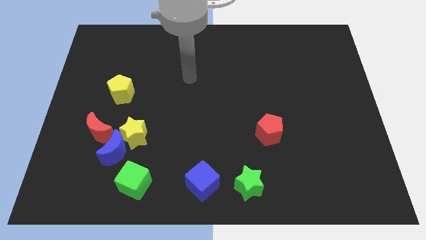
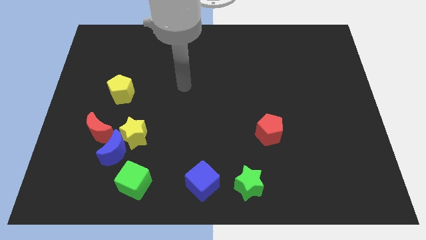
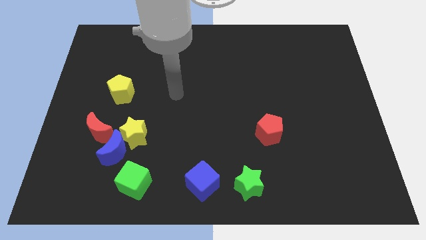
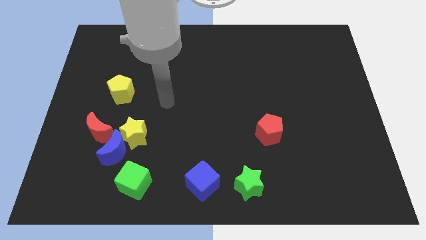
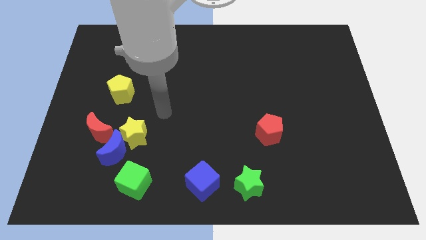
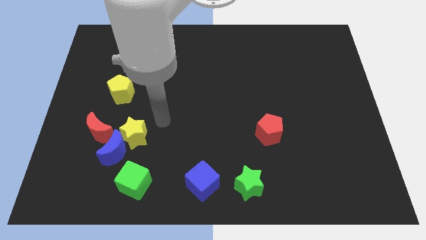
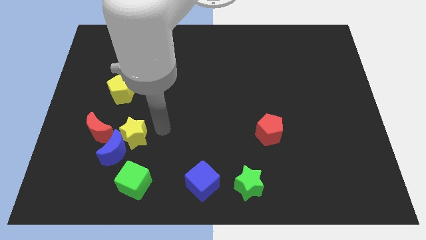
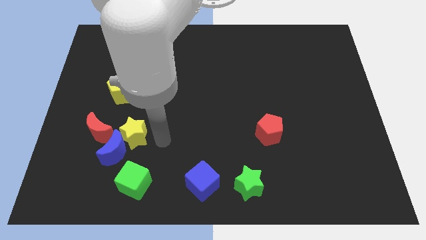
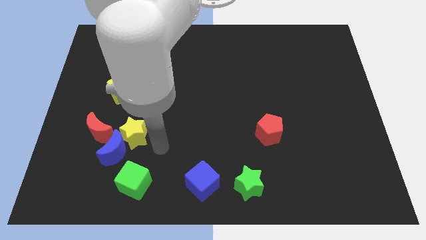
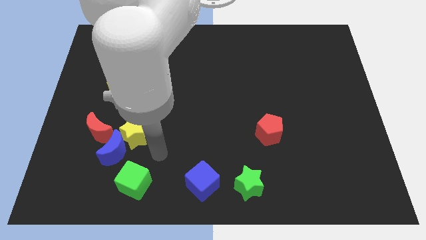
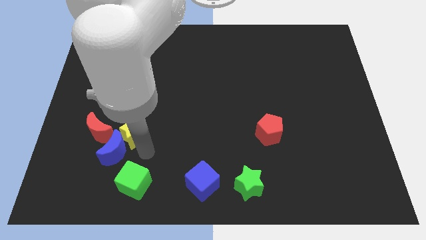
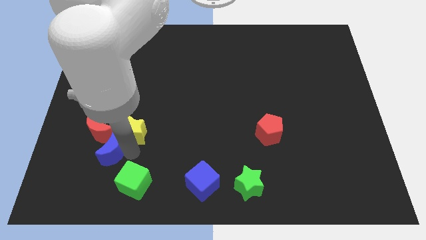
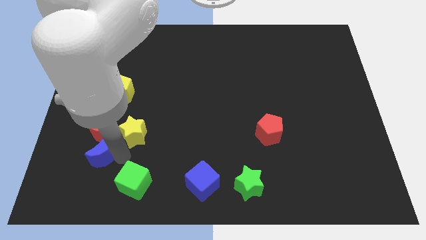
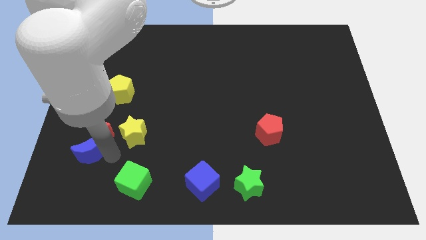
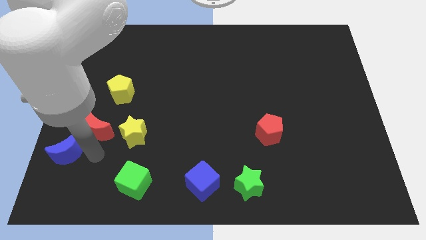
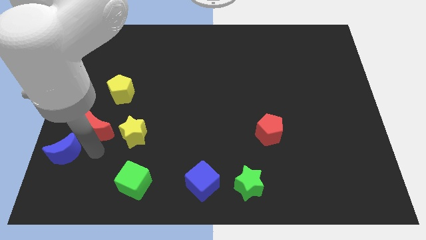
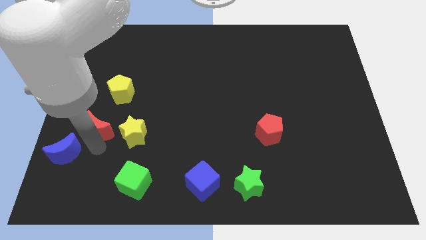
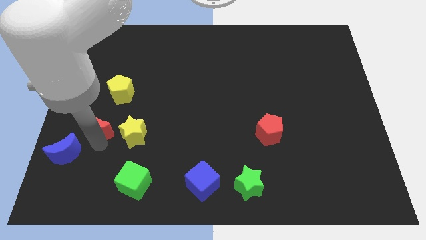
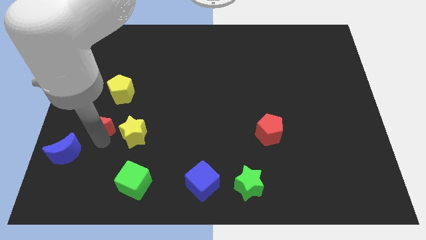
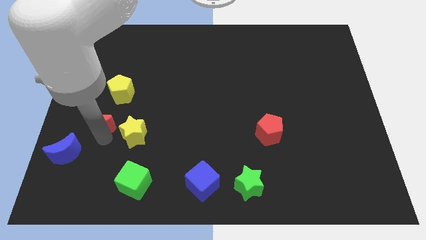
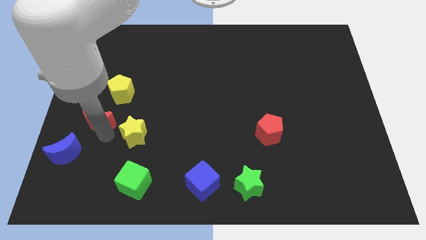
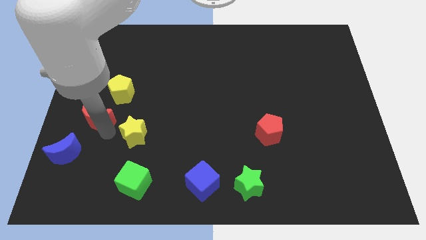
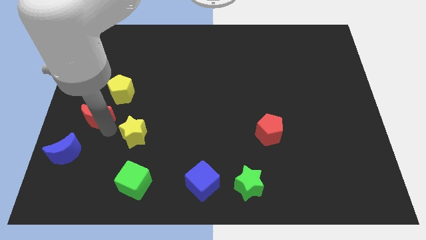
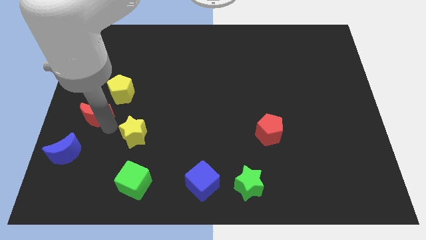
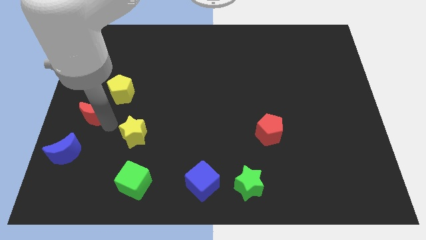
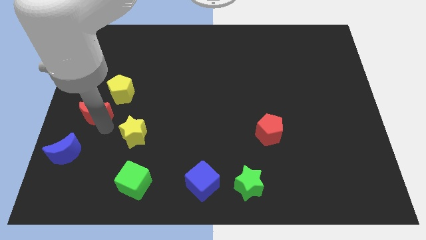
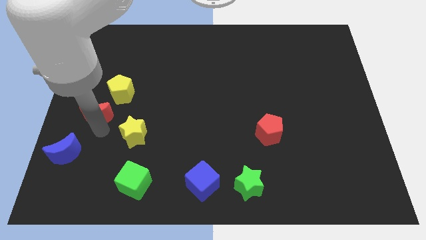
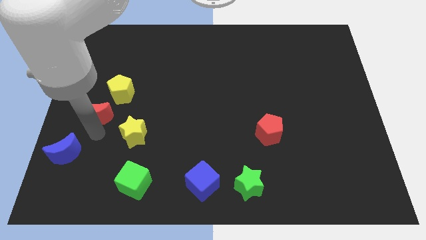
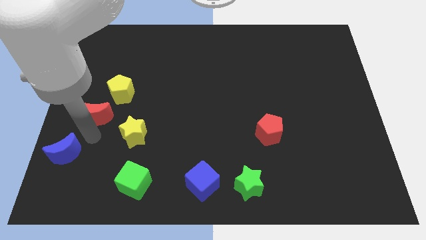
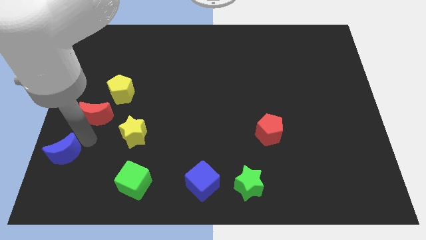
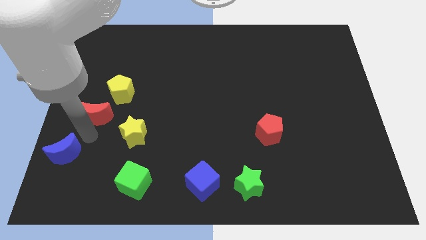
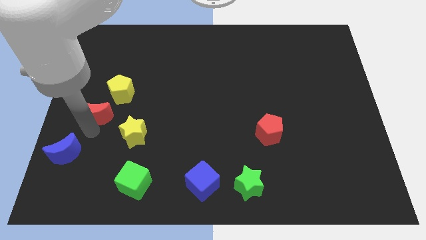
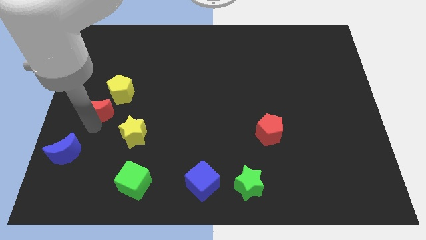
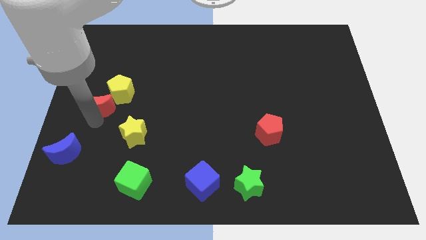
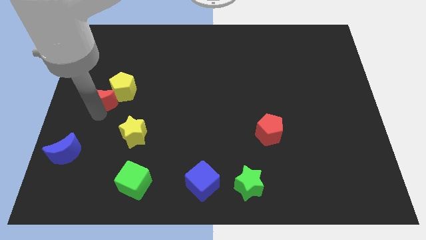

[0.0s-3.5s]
push the red moon upwards a little bit

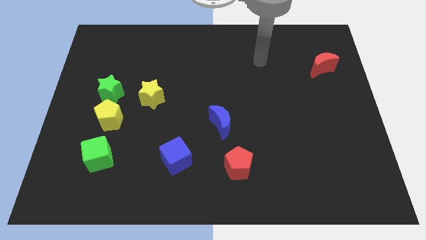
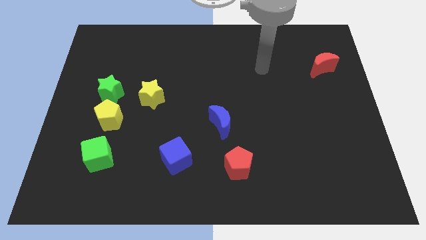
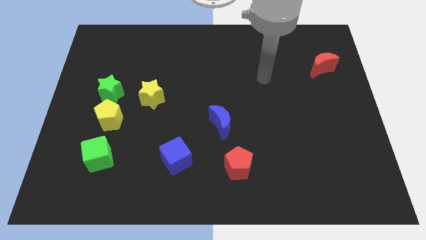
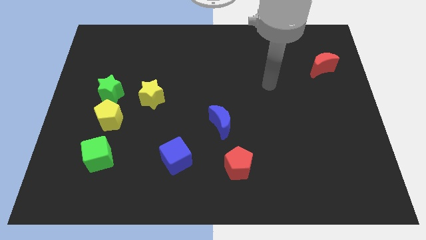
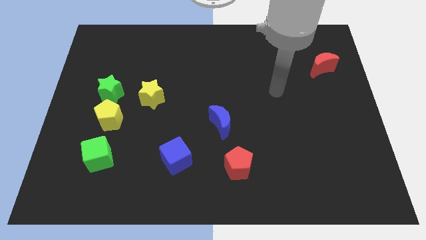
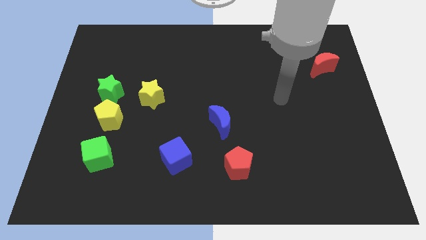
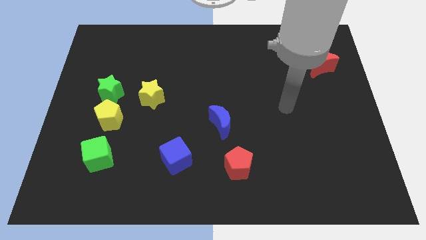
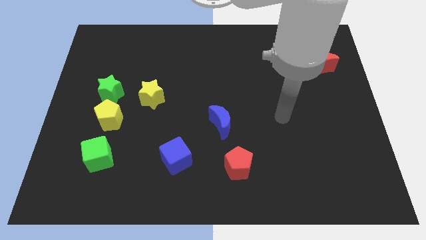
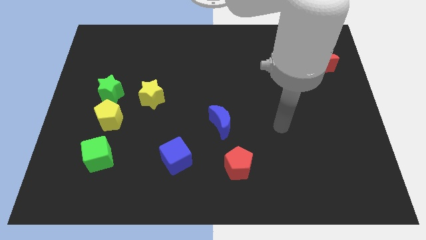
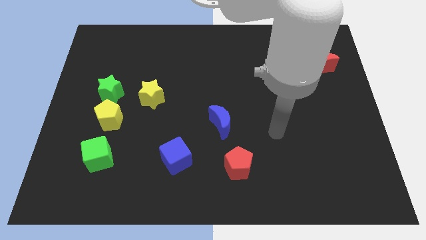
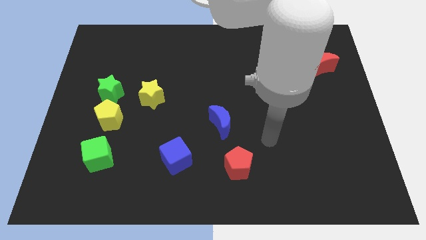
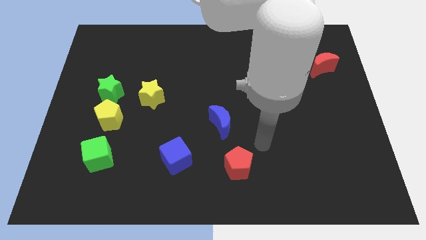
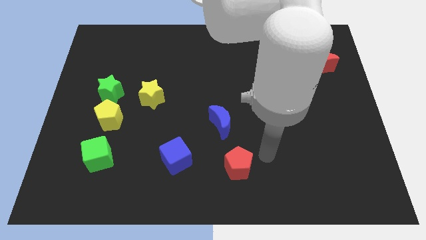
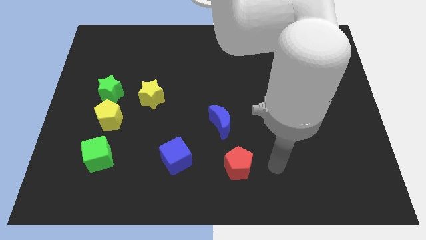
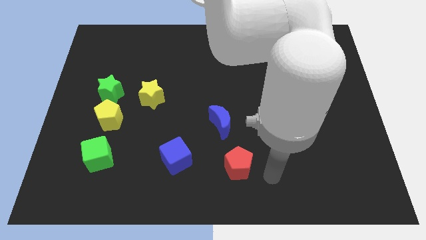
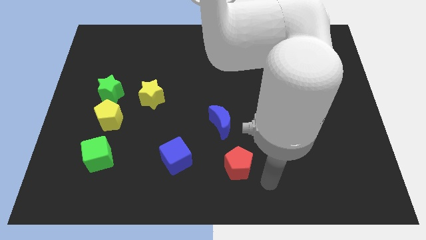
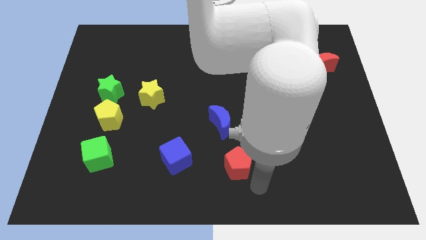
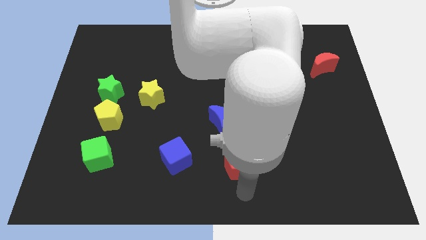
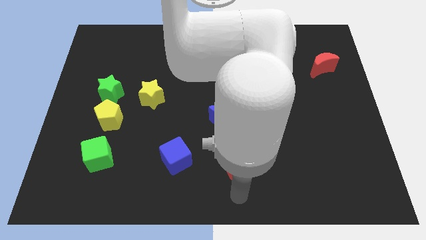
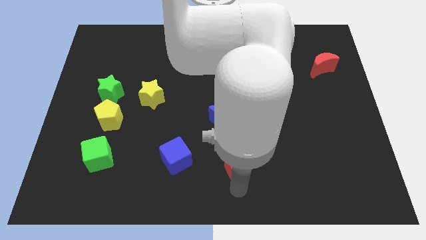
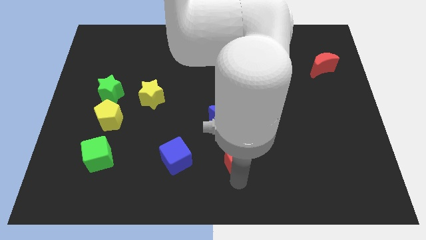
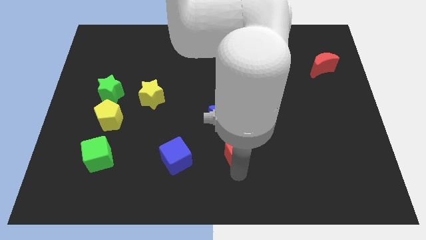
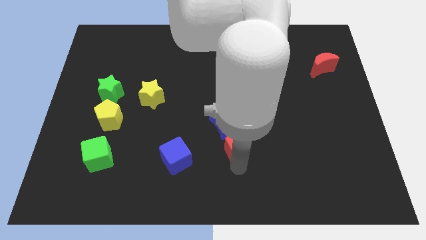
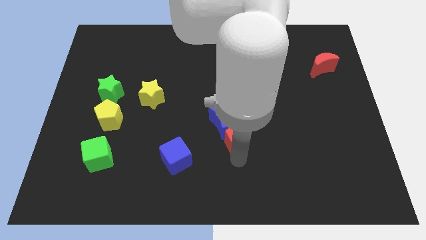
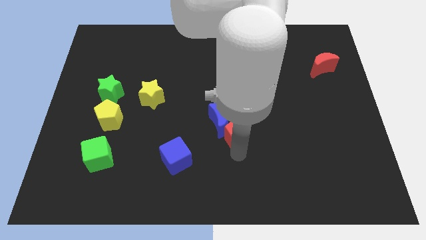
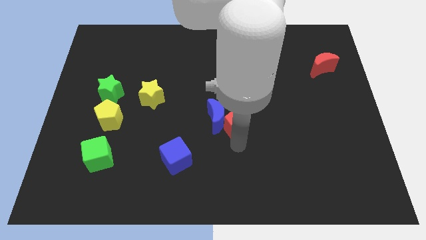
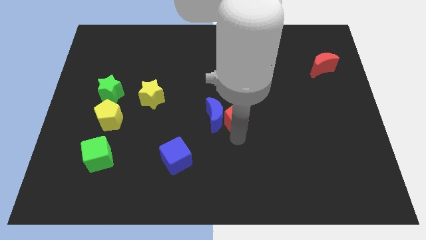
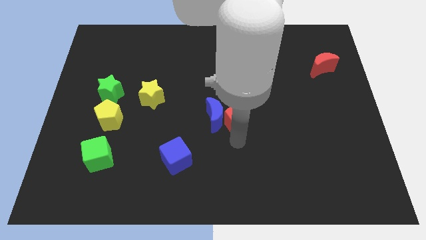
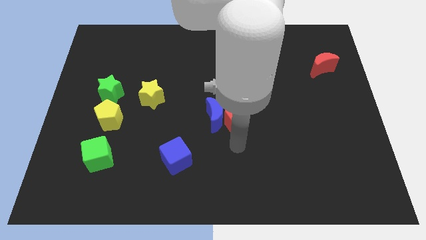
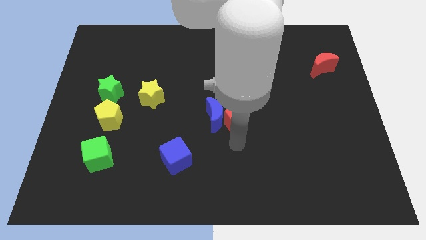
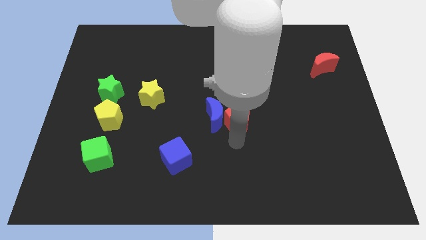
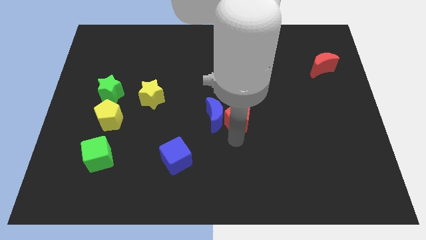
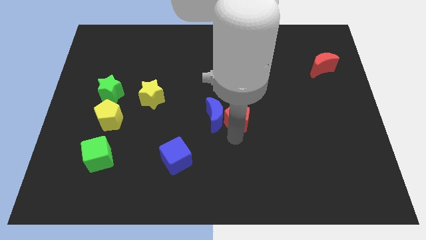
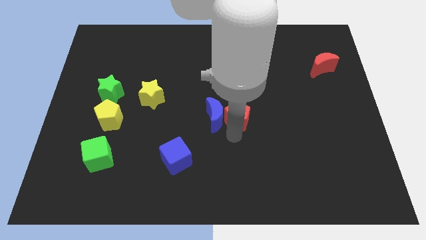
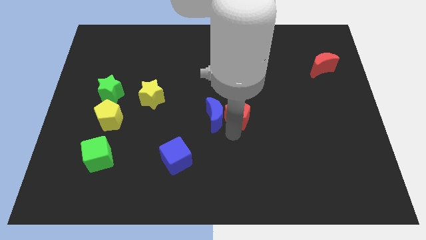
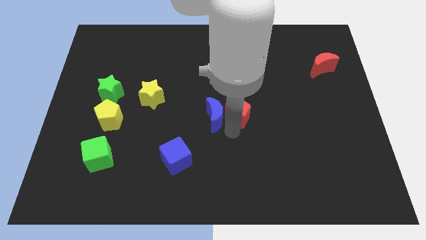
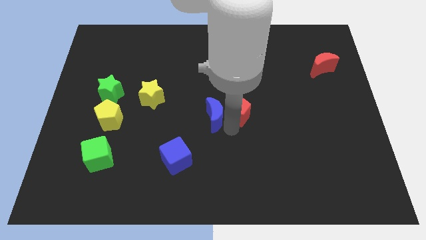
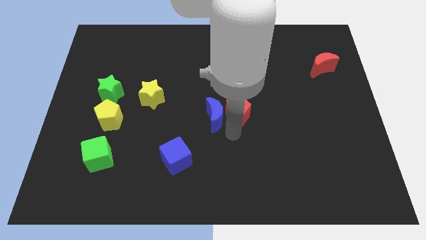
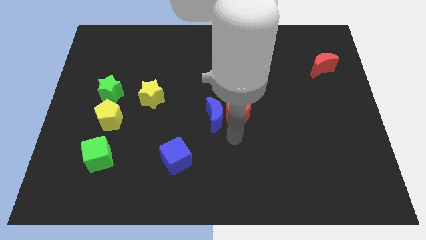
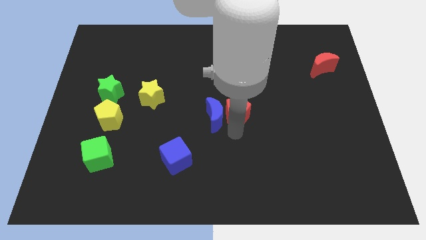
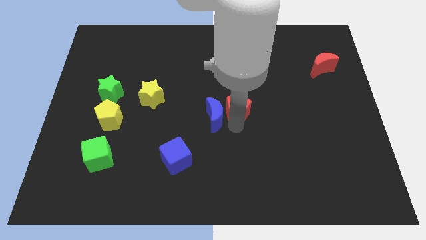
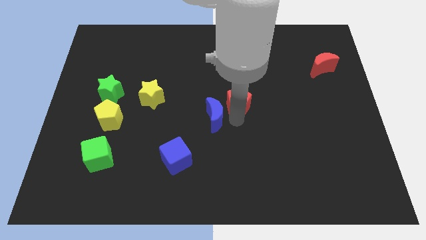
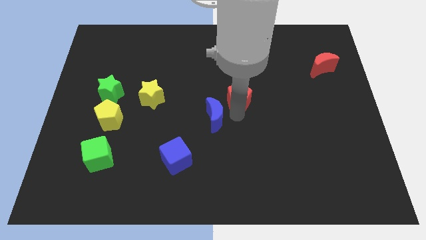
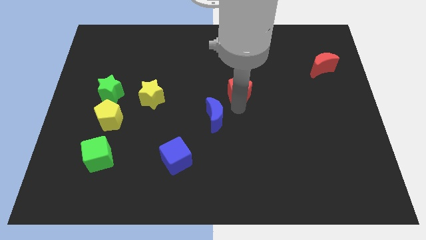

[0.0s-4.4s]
slide the red pentagon upwards

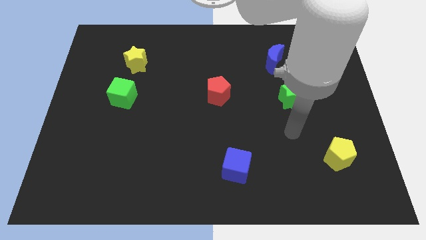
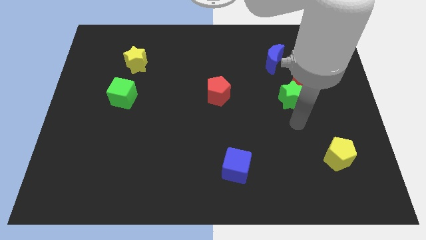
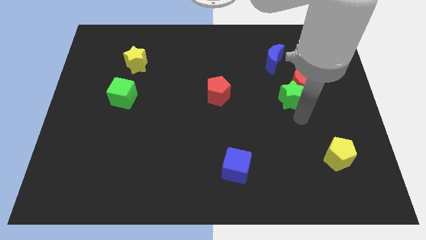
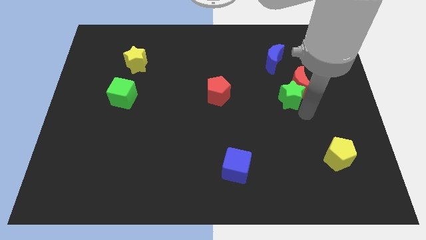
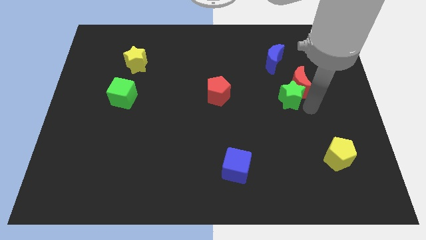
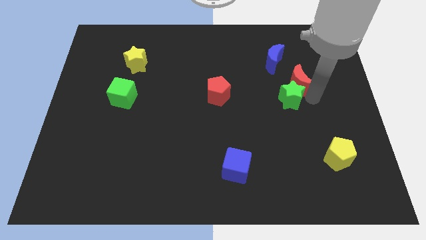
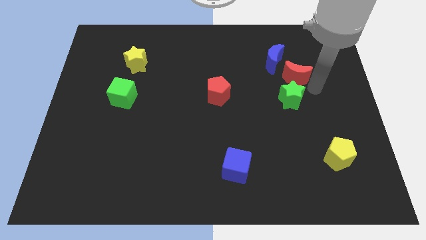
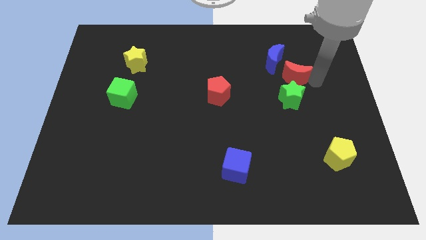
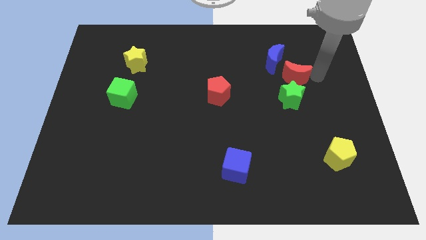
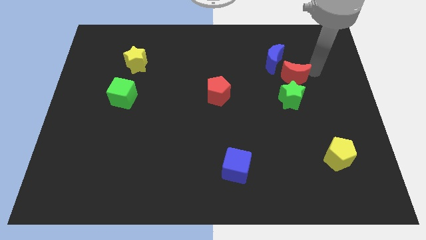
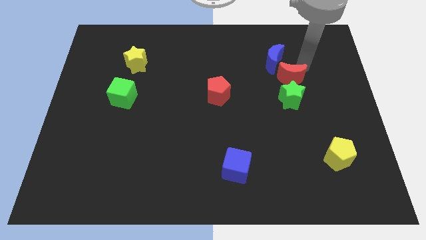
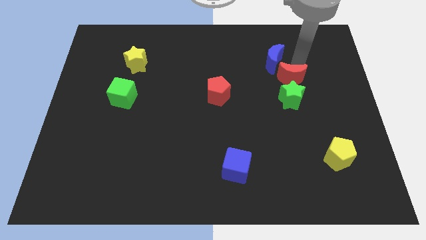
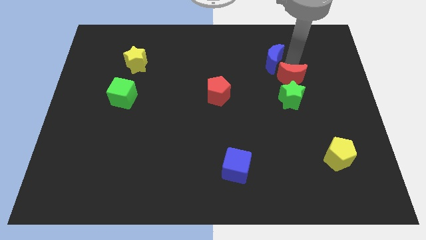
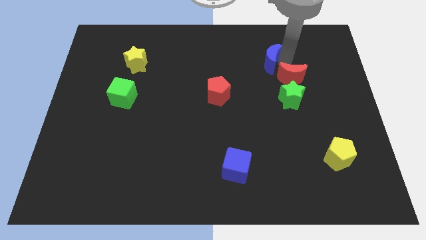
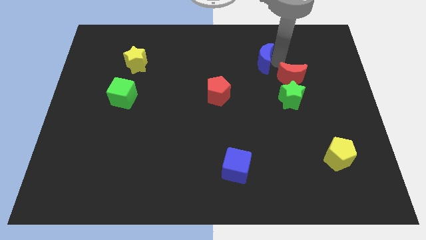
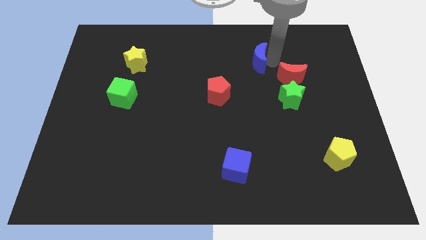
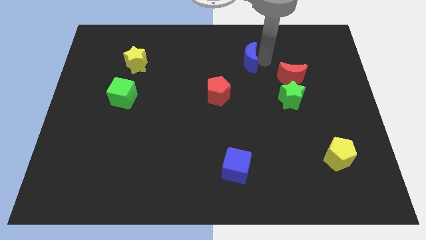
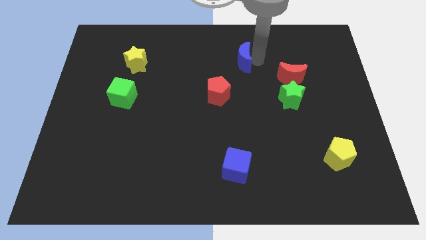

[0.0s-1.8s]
move the blue moon a little left
